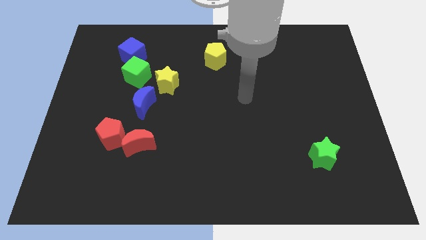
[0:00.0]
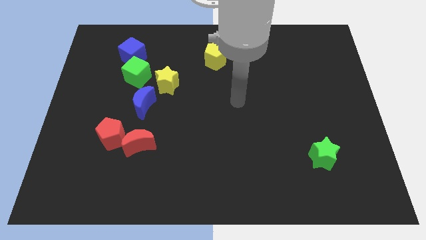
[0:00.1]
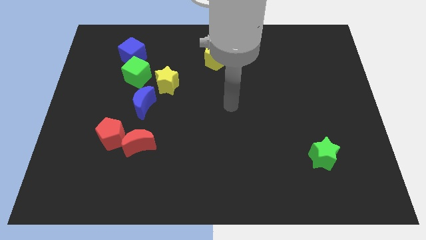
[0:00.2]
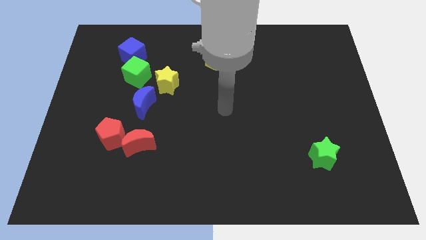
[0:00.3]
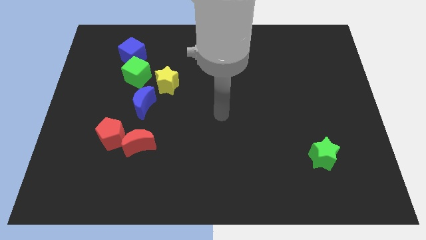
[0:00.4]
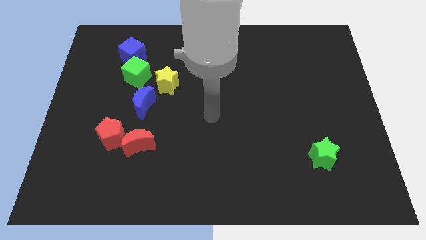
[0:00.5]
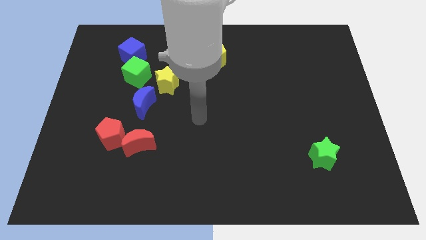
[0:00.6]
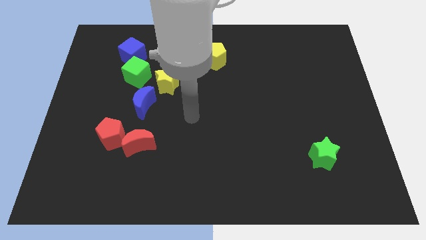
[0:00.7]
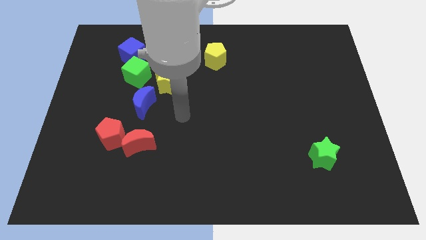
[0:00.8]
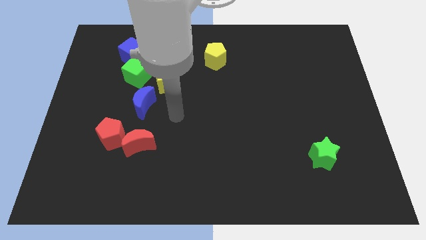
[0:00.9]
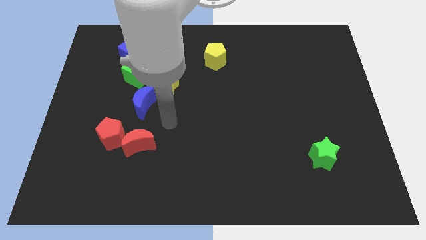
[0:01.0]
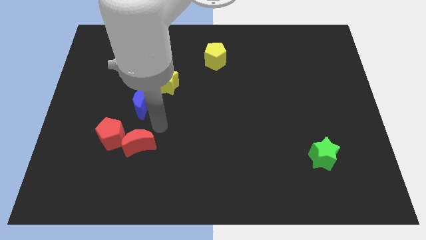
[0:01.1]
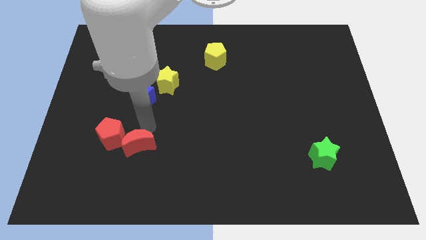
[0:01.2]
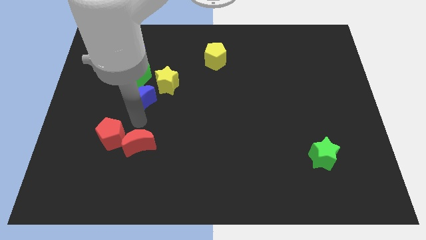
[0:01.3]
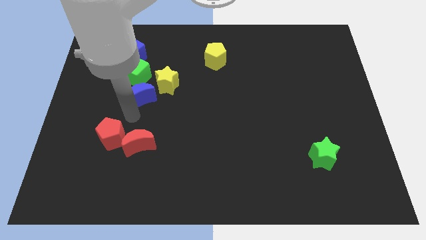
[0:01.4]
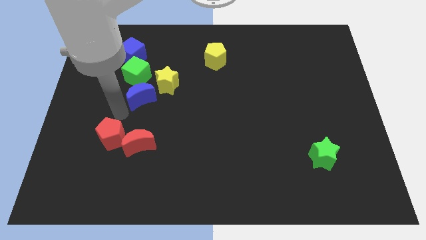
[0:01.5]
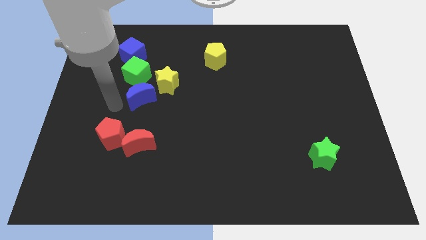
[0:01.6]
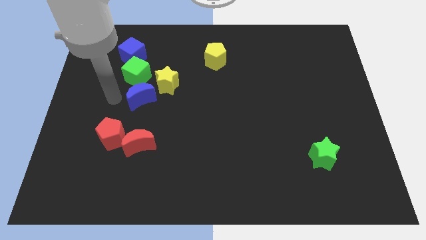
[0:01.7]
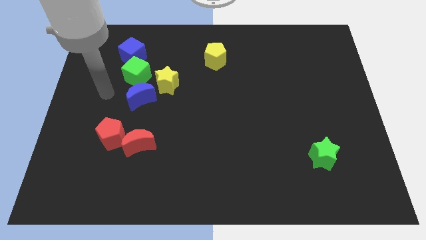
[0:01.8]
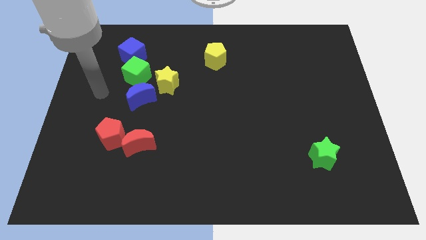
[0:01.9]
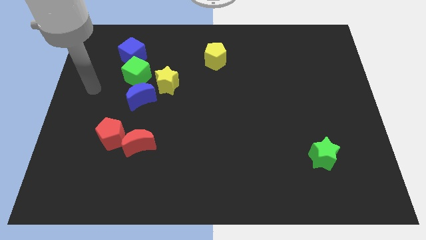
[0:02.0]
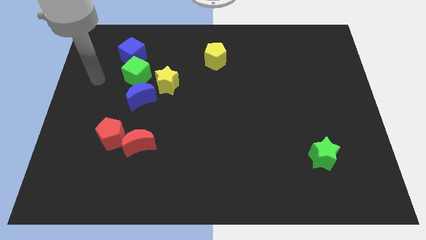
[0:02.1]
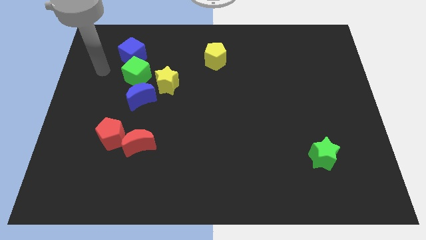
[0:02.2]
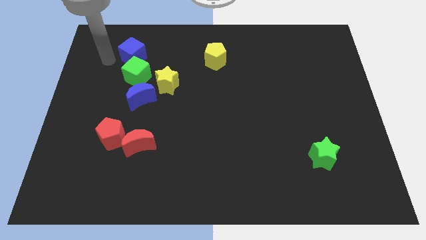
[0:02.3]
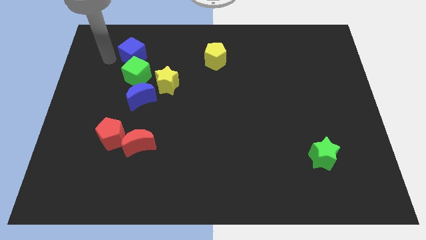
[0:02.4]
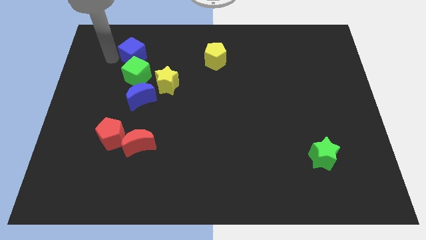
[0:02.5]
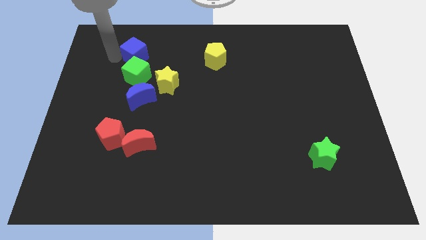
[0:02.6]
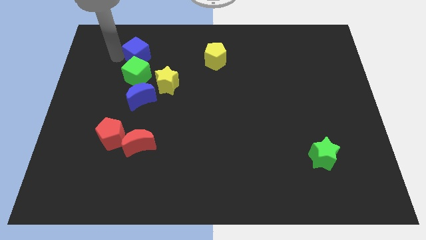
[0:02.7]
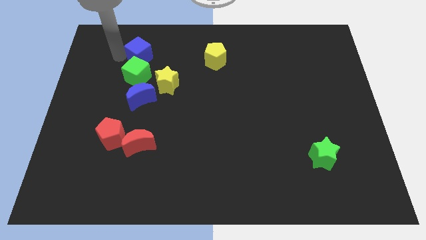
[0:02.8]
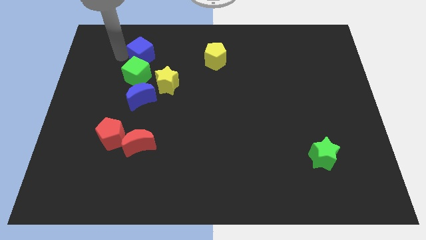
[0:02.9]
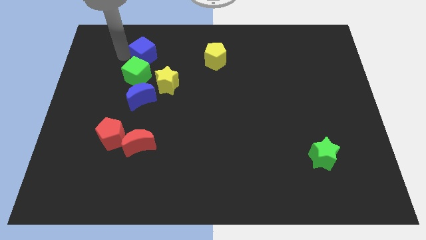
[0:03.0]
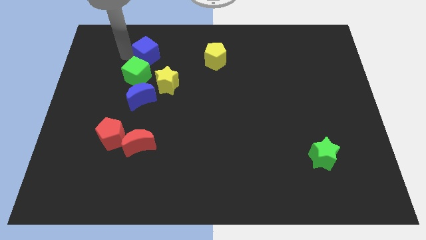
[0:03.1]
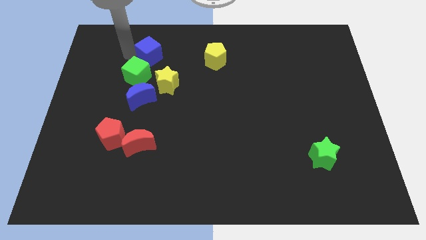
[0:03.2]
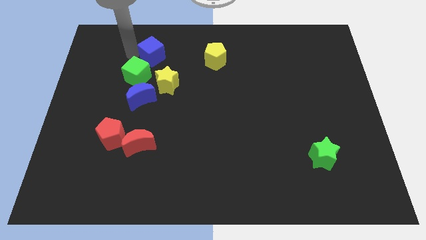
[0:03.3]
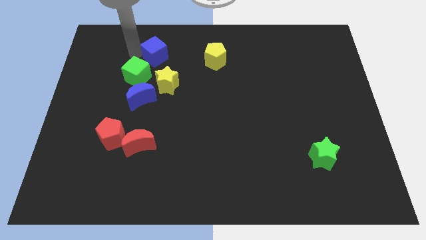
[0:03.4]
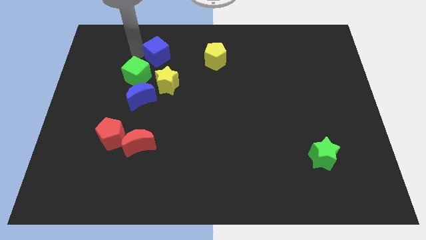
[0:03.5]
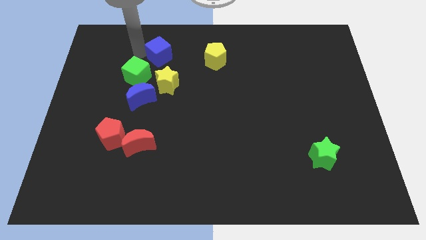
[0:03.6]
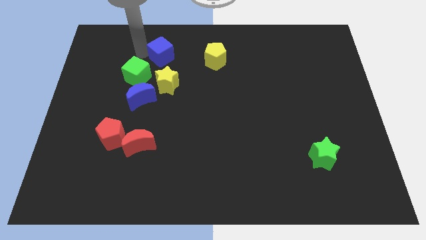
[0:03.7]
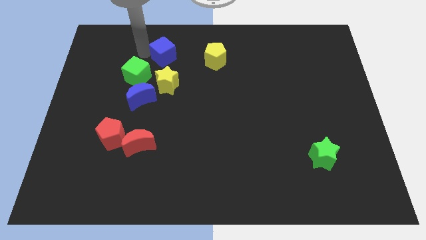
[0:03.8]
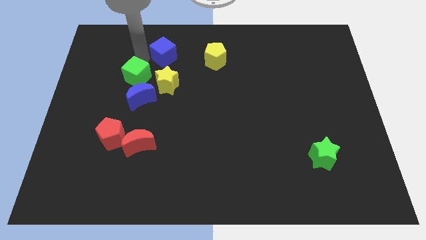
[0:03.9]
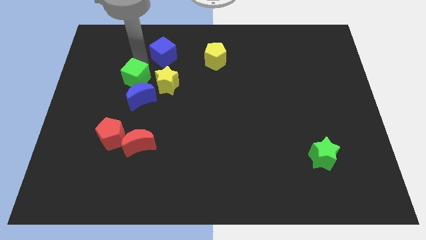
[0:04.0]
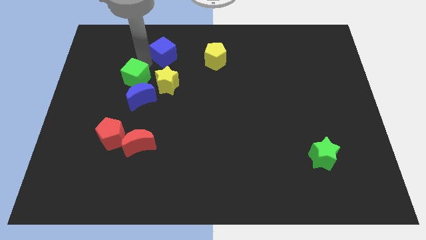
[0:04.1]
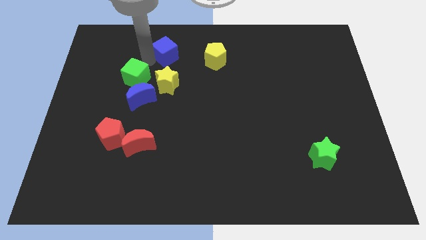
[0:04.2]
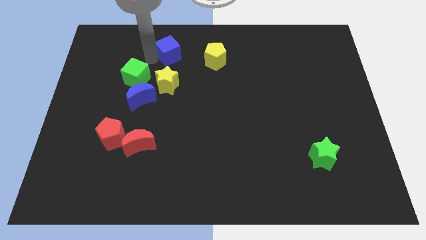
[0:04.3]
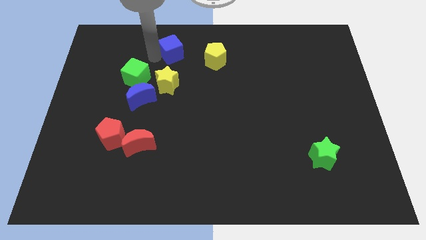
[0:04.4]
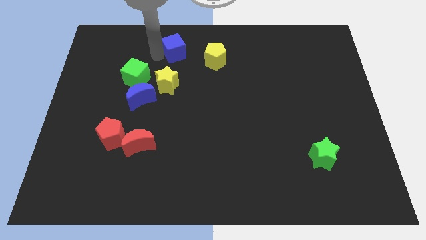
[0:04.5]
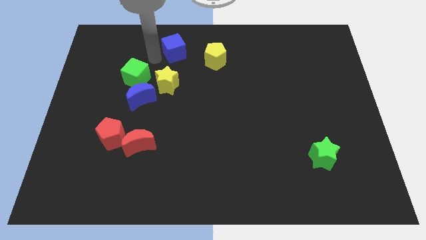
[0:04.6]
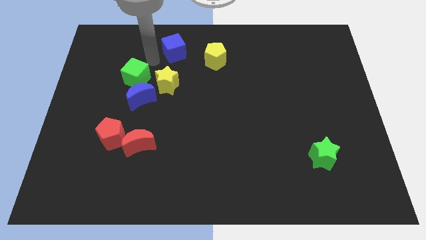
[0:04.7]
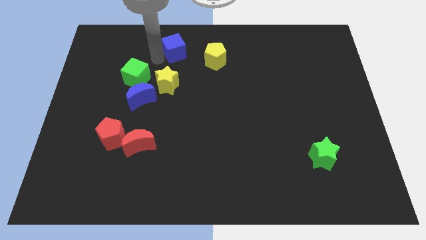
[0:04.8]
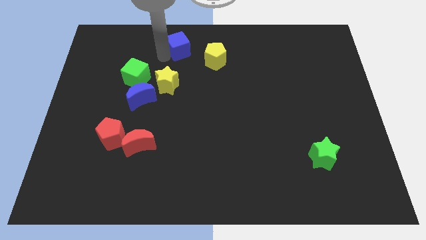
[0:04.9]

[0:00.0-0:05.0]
slide the blue cube to the towards your base

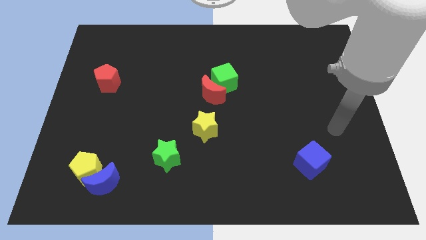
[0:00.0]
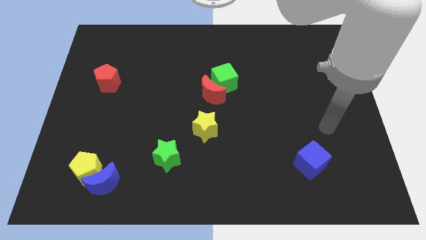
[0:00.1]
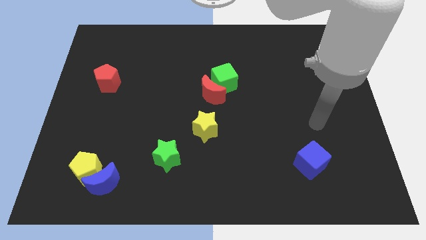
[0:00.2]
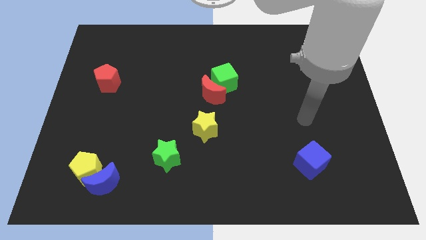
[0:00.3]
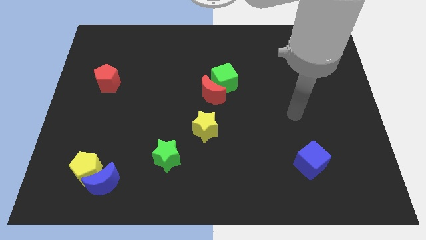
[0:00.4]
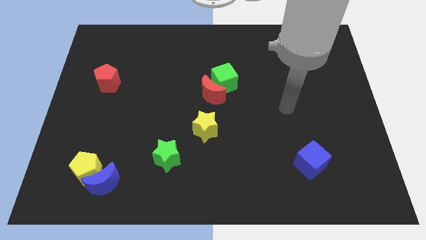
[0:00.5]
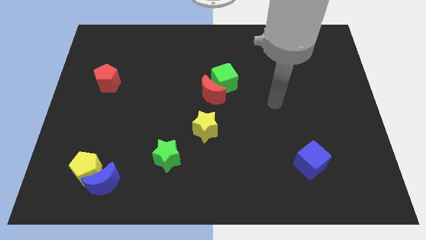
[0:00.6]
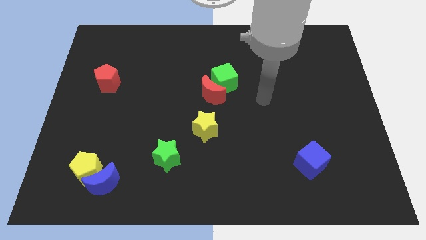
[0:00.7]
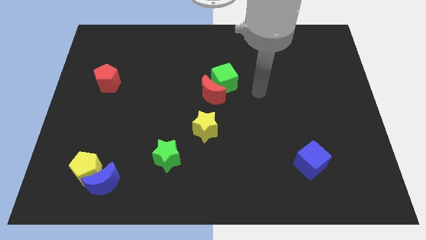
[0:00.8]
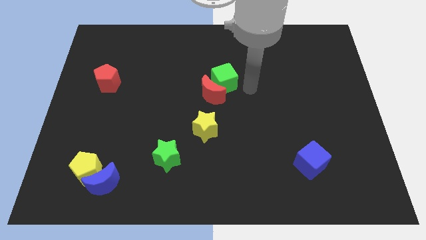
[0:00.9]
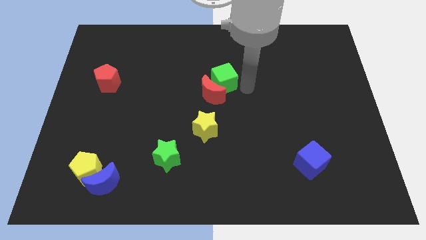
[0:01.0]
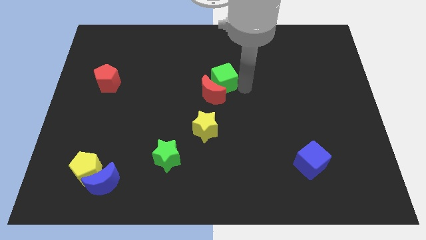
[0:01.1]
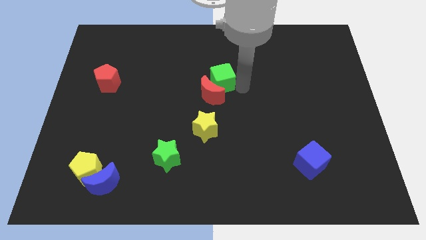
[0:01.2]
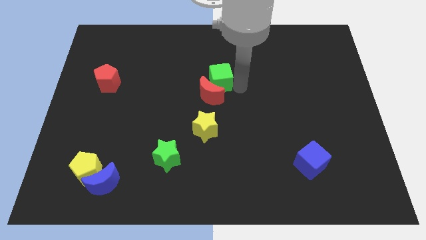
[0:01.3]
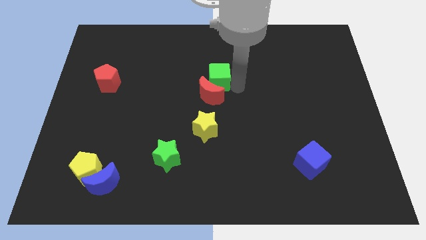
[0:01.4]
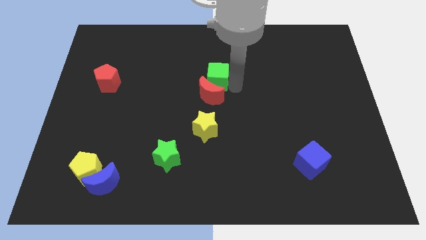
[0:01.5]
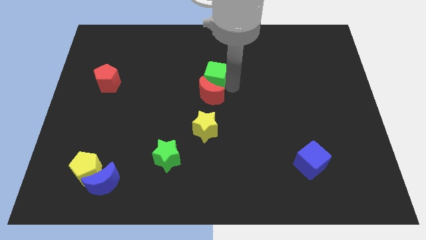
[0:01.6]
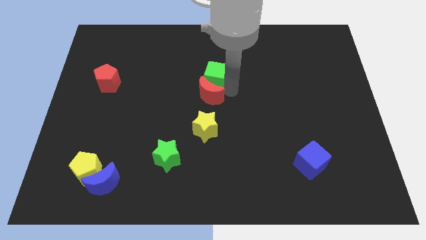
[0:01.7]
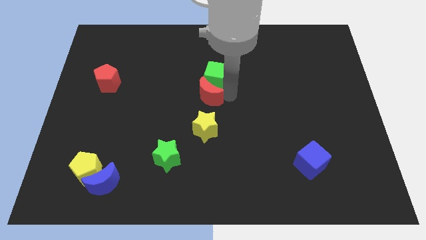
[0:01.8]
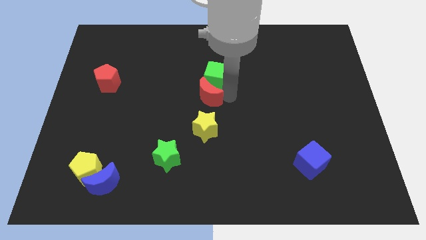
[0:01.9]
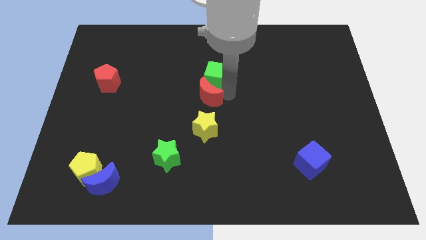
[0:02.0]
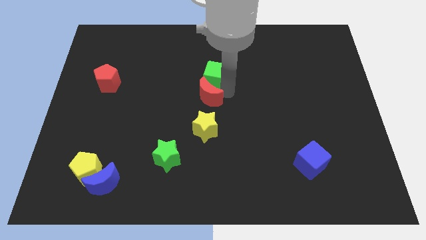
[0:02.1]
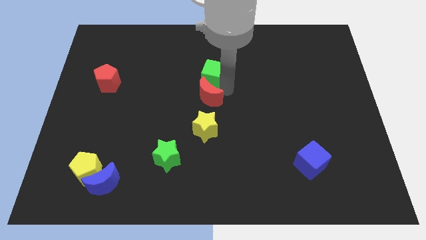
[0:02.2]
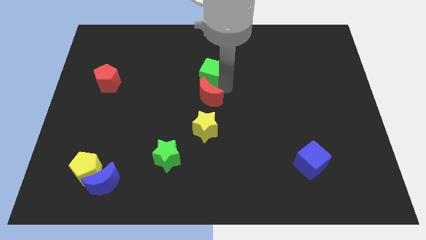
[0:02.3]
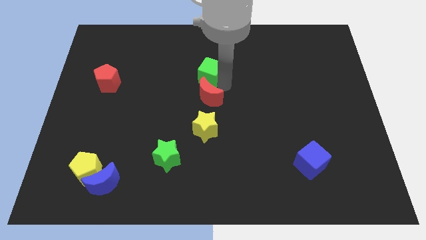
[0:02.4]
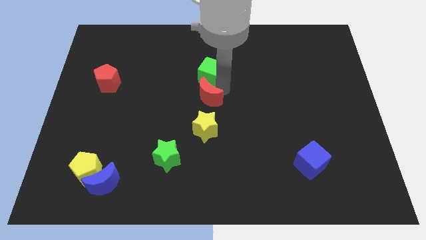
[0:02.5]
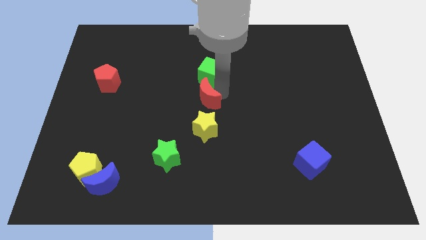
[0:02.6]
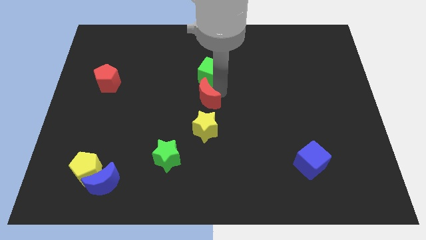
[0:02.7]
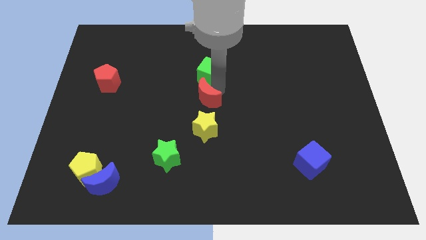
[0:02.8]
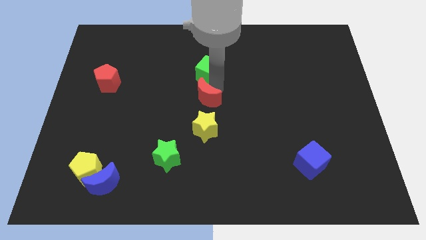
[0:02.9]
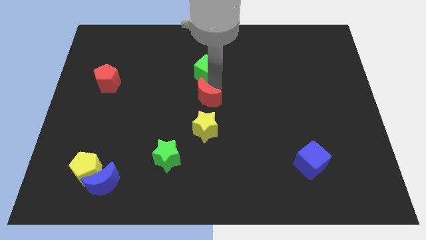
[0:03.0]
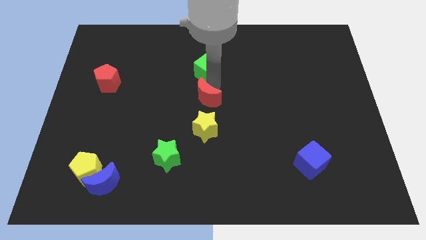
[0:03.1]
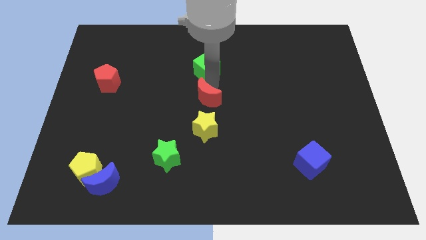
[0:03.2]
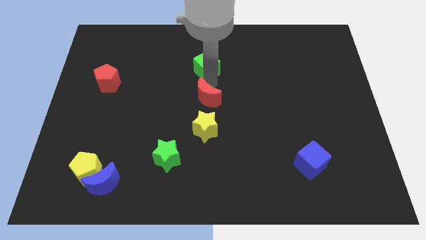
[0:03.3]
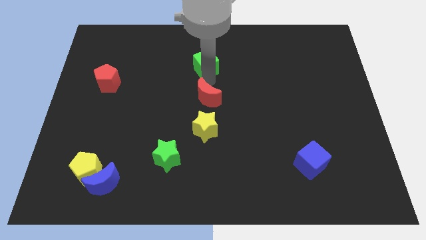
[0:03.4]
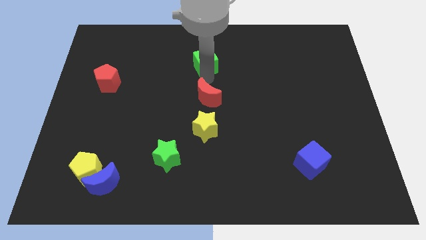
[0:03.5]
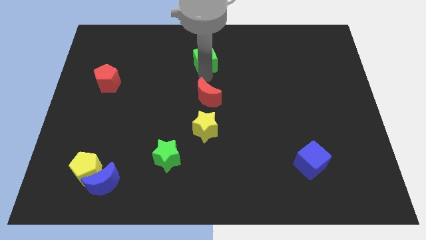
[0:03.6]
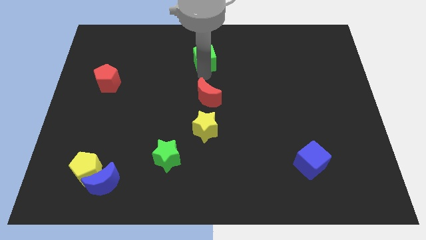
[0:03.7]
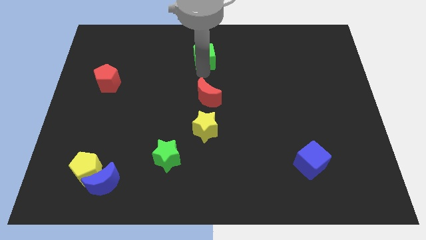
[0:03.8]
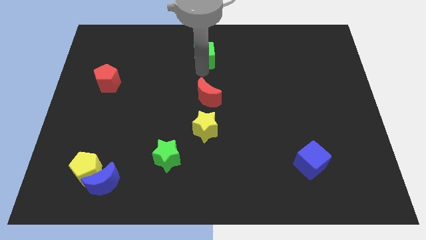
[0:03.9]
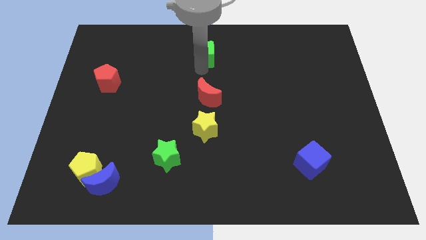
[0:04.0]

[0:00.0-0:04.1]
put the green cube to the towards your base
